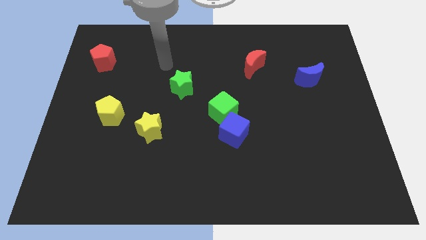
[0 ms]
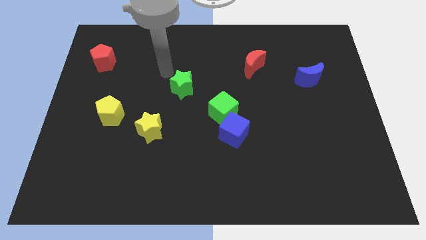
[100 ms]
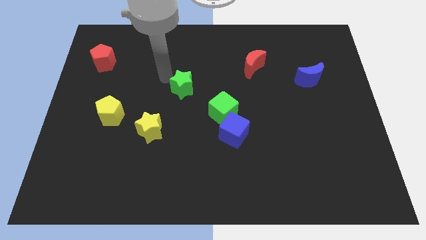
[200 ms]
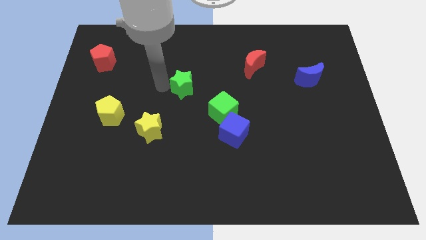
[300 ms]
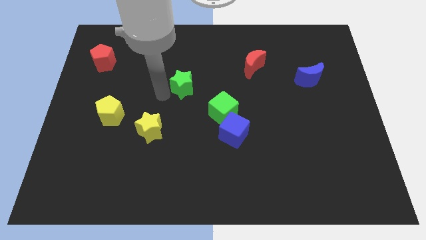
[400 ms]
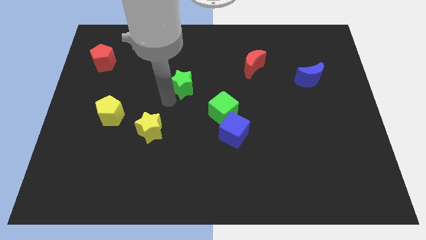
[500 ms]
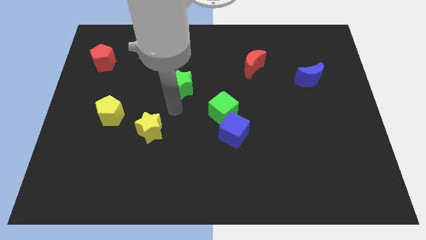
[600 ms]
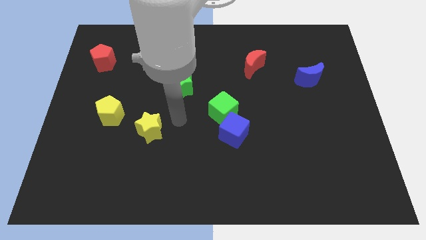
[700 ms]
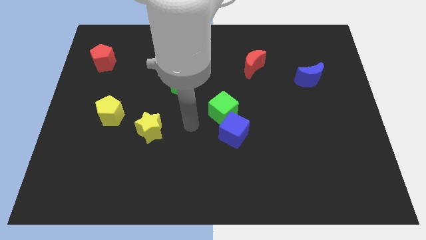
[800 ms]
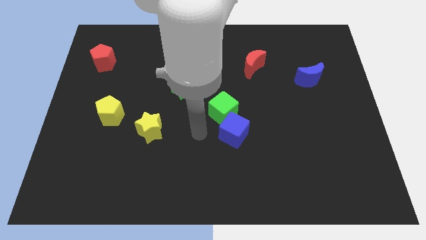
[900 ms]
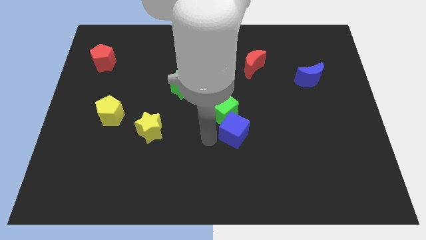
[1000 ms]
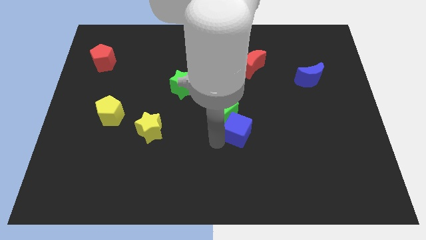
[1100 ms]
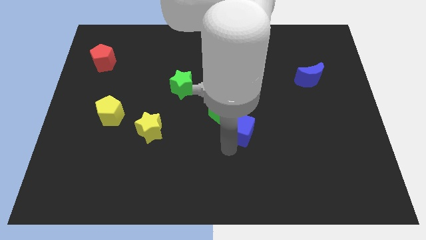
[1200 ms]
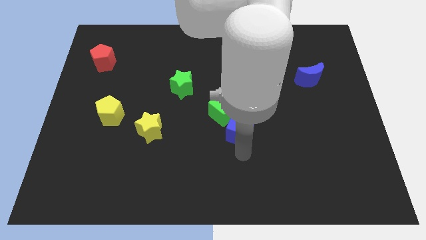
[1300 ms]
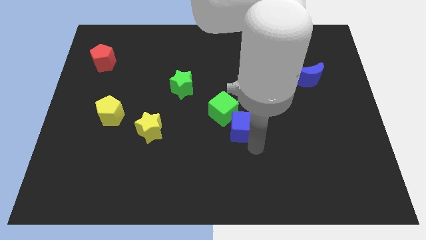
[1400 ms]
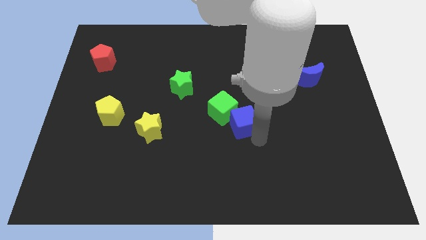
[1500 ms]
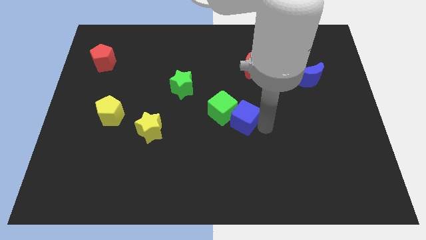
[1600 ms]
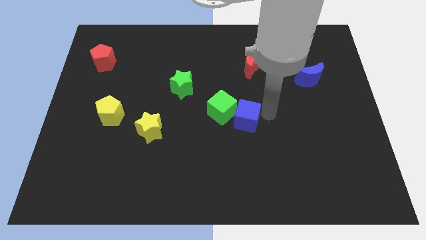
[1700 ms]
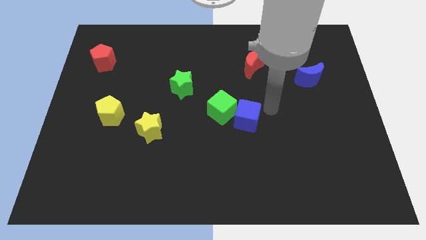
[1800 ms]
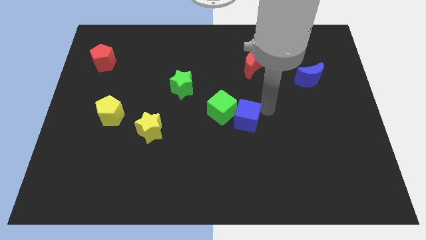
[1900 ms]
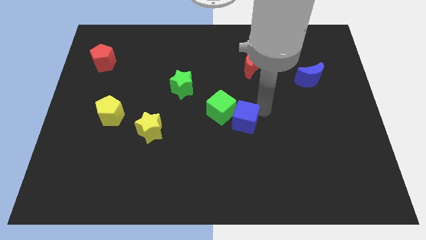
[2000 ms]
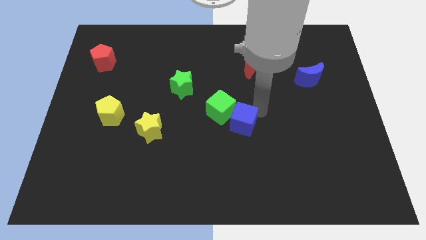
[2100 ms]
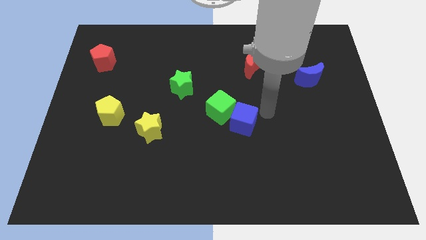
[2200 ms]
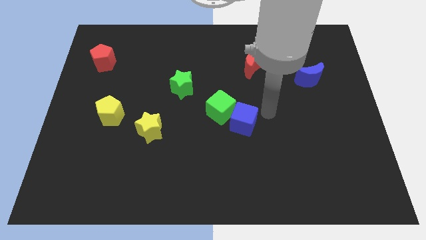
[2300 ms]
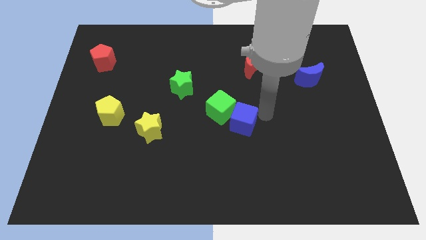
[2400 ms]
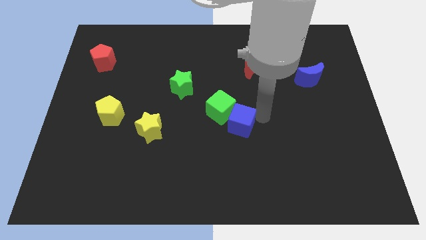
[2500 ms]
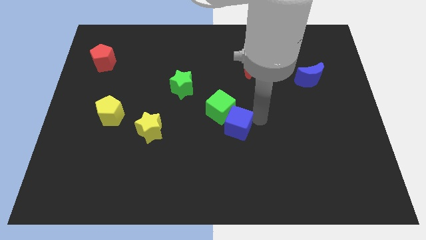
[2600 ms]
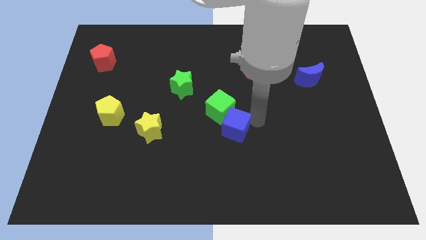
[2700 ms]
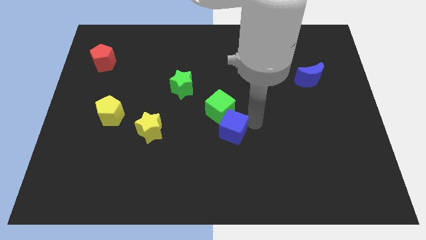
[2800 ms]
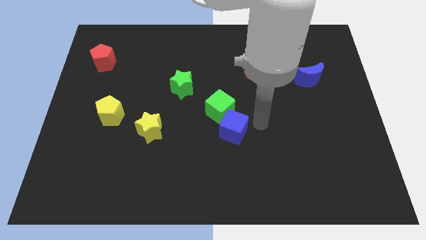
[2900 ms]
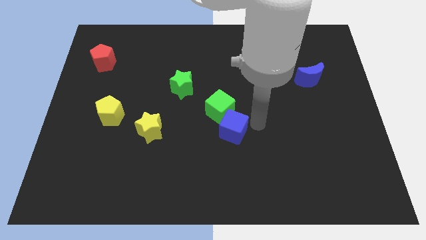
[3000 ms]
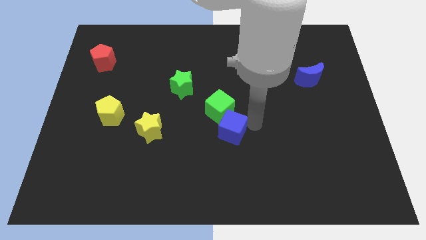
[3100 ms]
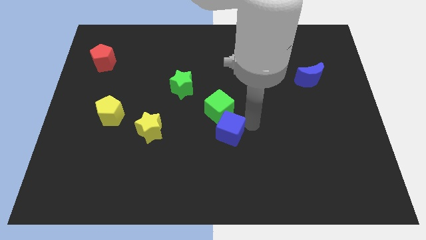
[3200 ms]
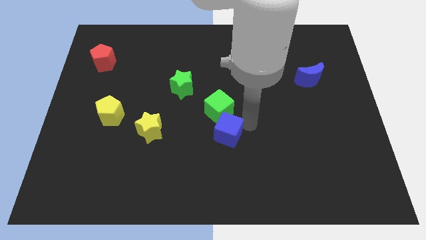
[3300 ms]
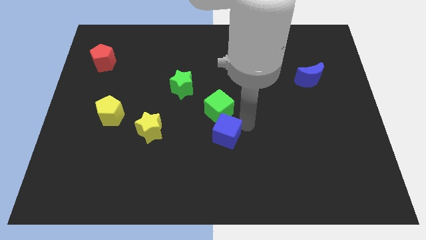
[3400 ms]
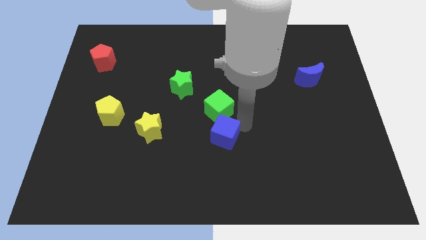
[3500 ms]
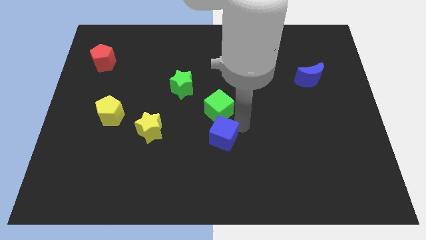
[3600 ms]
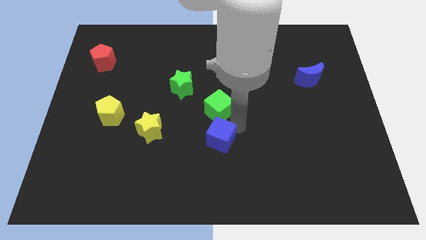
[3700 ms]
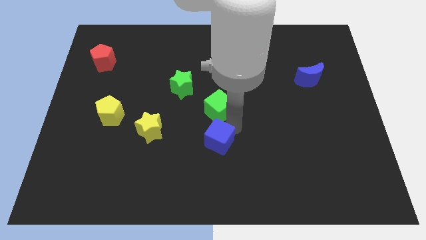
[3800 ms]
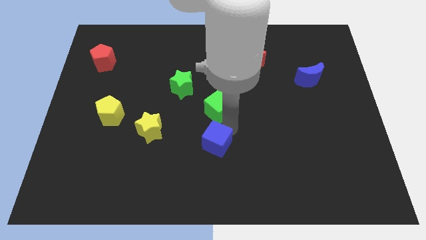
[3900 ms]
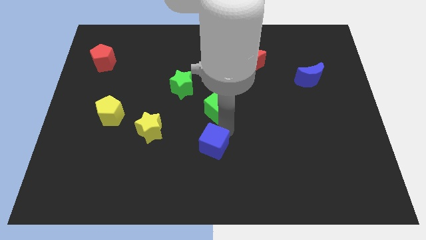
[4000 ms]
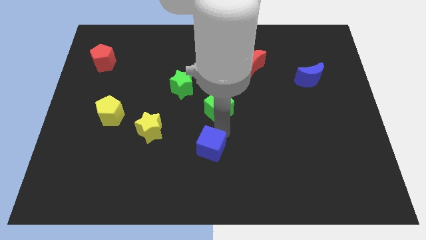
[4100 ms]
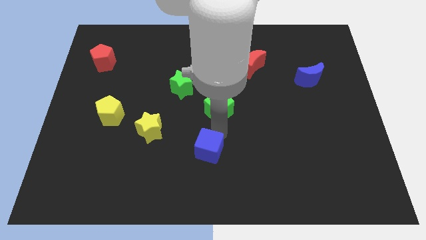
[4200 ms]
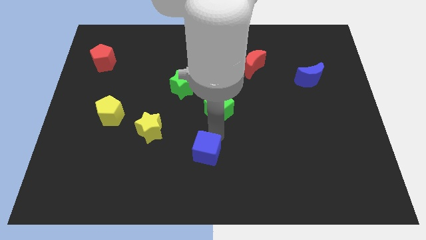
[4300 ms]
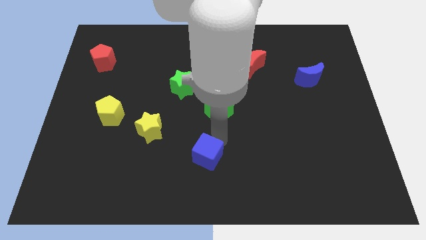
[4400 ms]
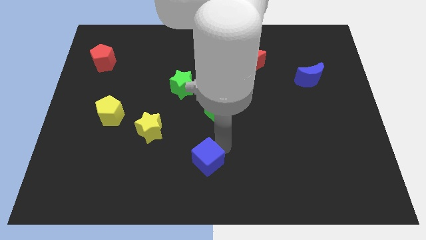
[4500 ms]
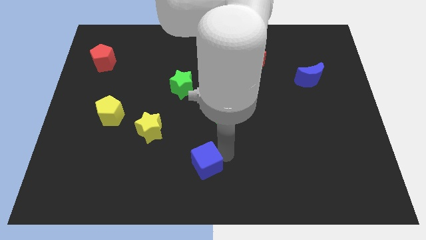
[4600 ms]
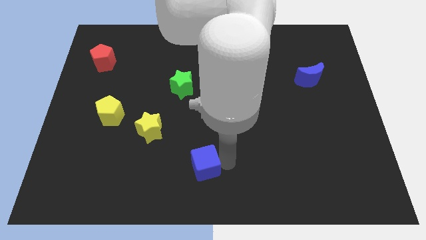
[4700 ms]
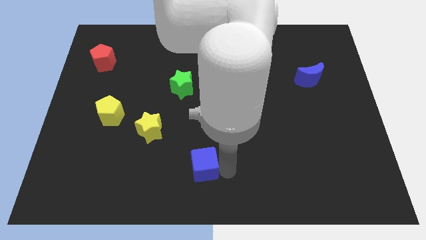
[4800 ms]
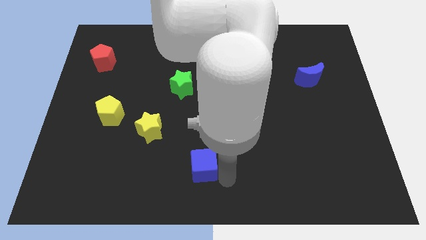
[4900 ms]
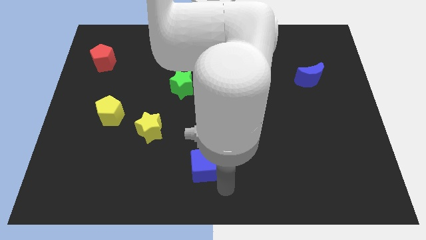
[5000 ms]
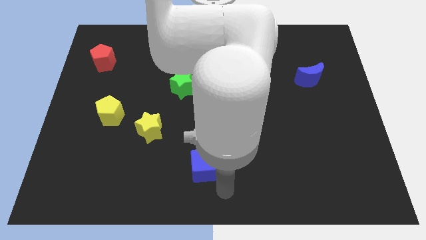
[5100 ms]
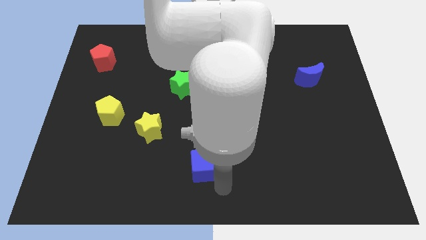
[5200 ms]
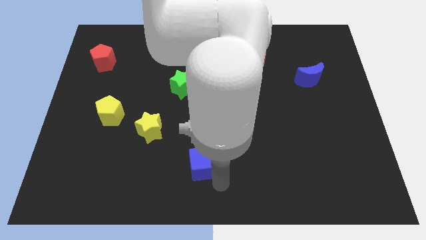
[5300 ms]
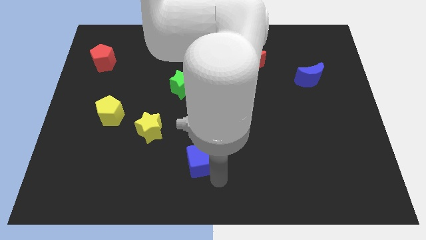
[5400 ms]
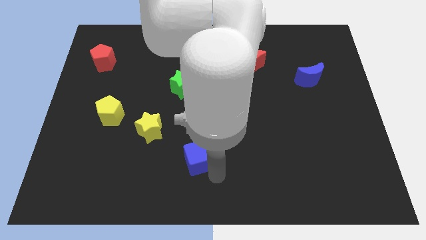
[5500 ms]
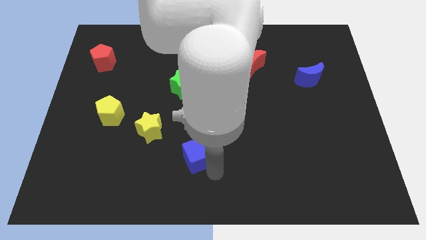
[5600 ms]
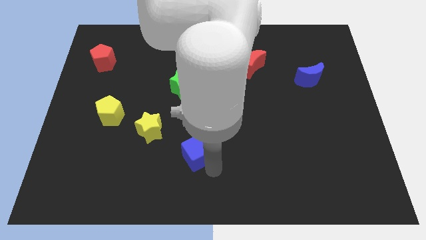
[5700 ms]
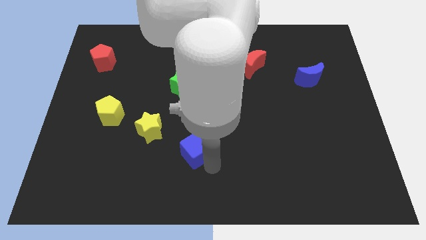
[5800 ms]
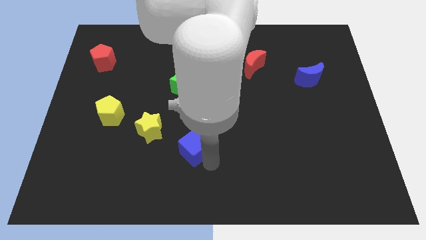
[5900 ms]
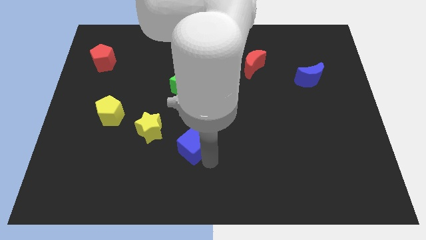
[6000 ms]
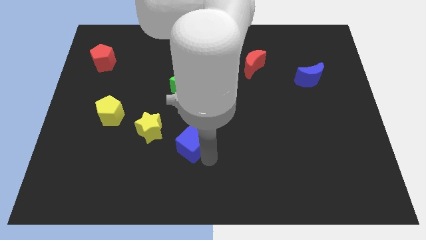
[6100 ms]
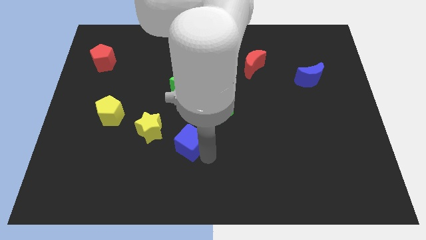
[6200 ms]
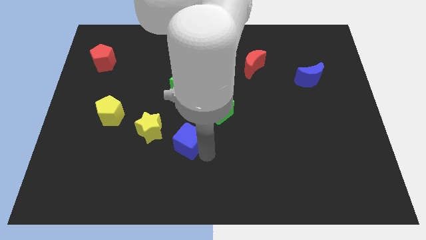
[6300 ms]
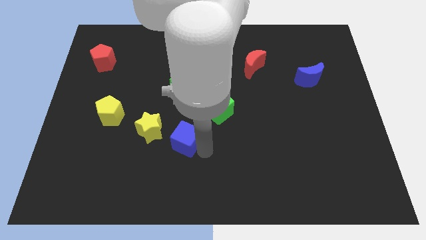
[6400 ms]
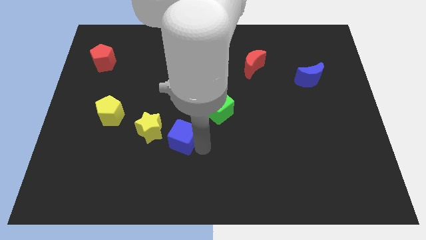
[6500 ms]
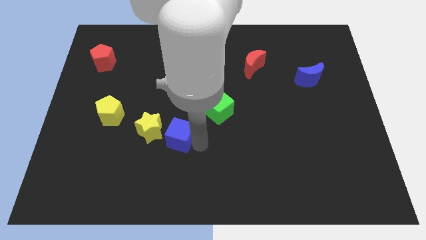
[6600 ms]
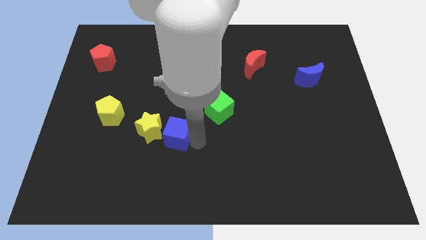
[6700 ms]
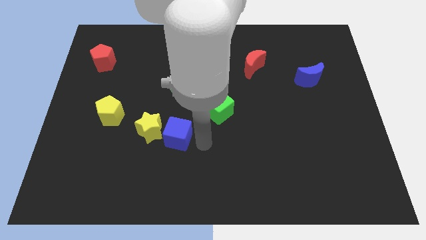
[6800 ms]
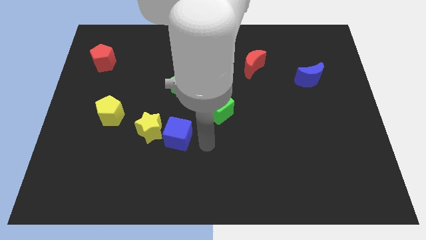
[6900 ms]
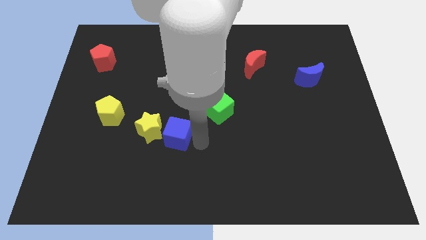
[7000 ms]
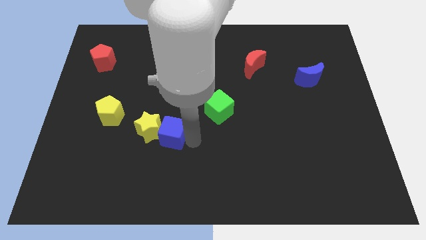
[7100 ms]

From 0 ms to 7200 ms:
move the blue cube towards the yellow star
